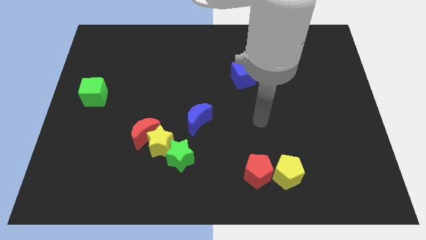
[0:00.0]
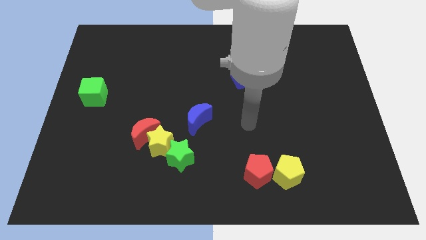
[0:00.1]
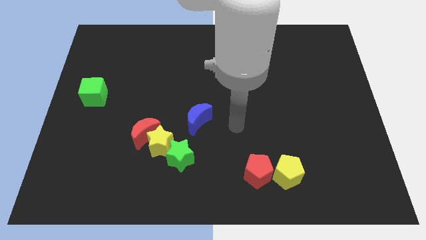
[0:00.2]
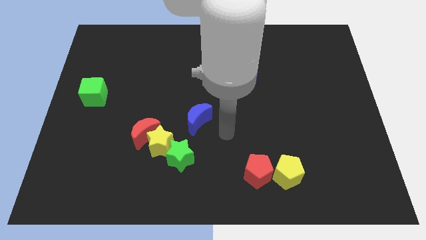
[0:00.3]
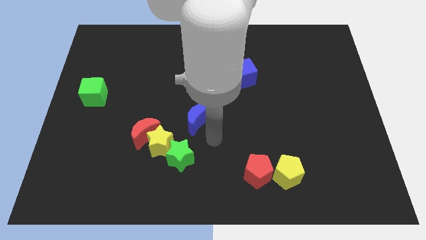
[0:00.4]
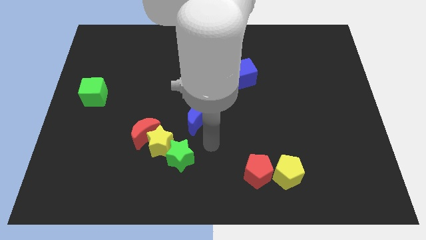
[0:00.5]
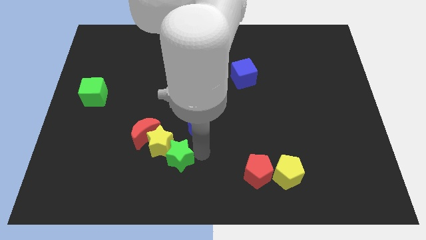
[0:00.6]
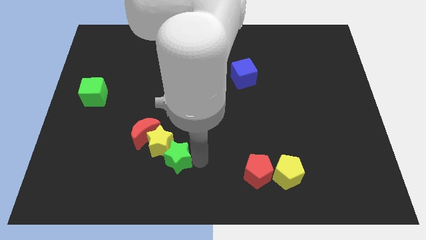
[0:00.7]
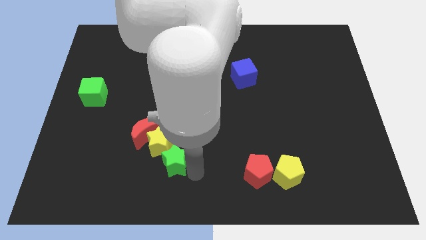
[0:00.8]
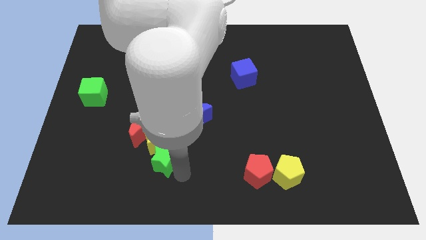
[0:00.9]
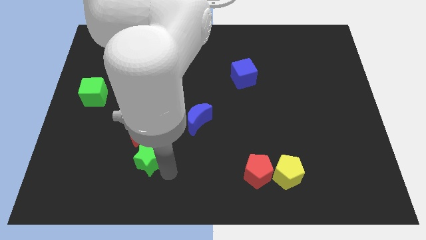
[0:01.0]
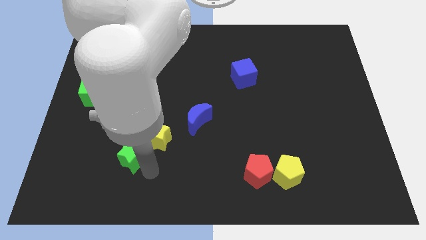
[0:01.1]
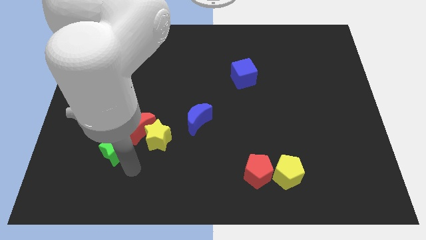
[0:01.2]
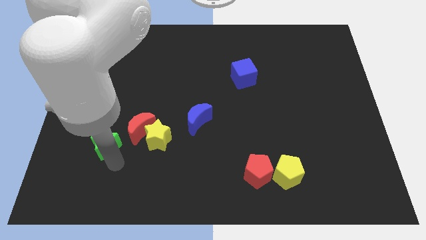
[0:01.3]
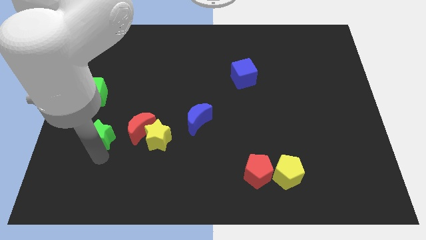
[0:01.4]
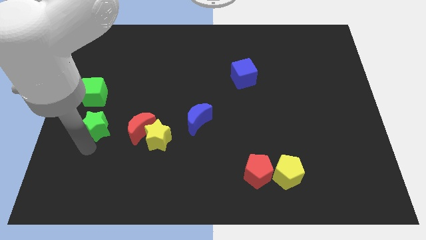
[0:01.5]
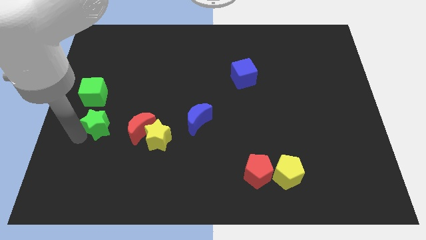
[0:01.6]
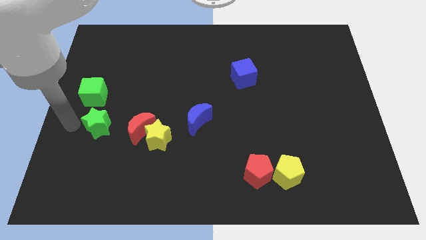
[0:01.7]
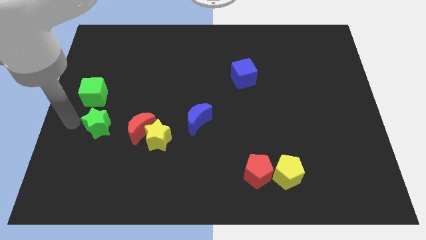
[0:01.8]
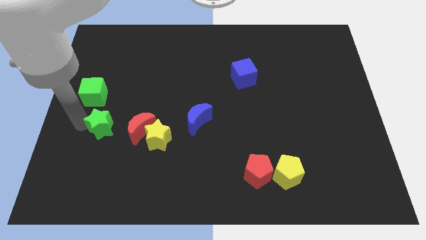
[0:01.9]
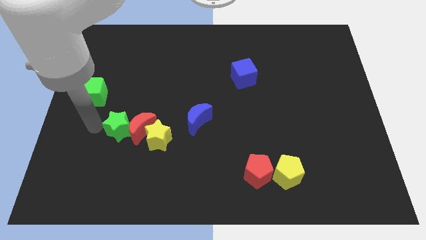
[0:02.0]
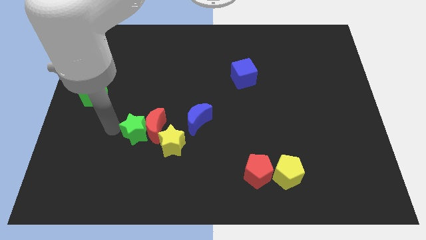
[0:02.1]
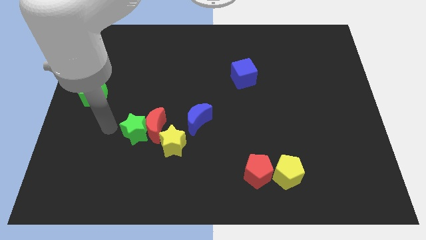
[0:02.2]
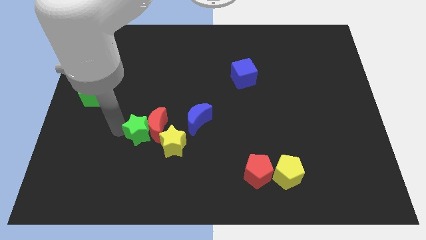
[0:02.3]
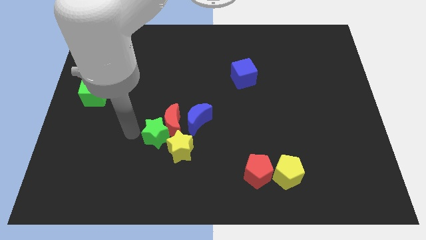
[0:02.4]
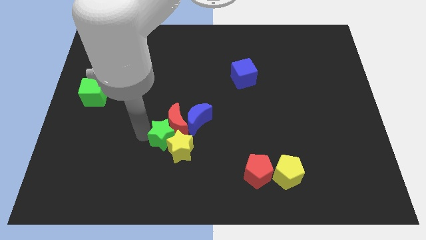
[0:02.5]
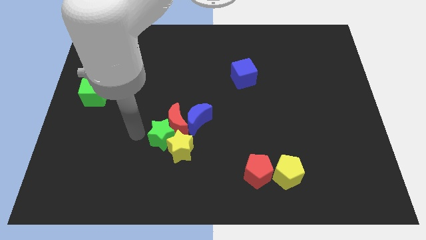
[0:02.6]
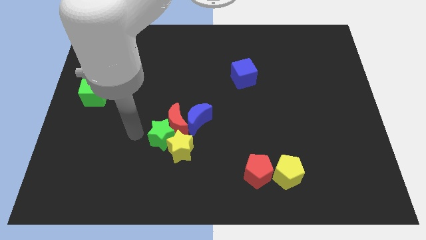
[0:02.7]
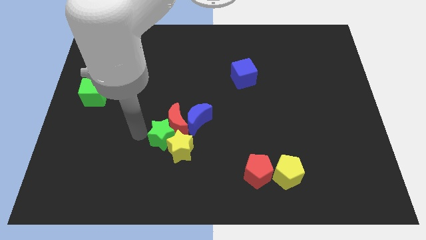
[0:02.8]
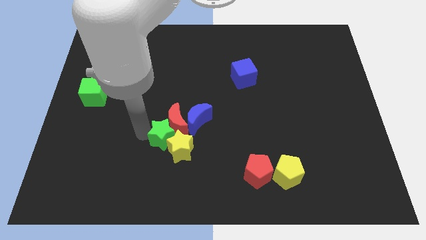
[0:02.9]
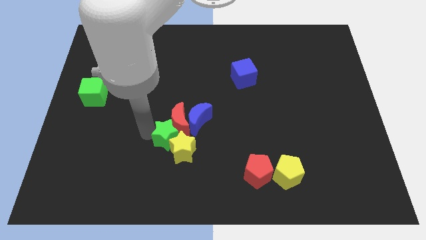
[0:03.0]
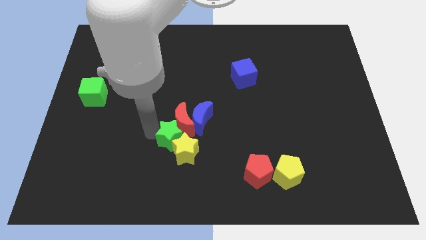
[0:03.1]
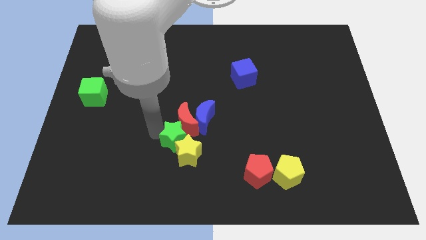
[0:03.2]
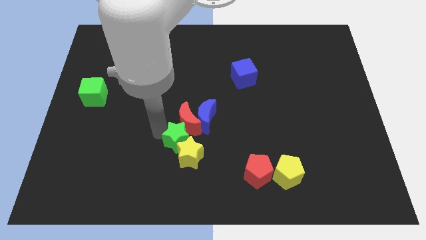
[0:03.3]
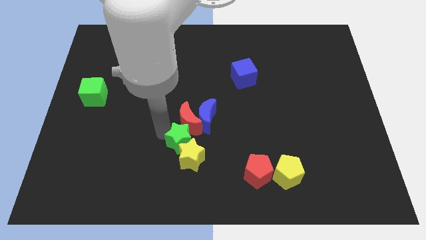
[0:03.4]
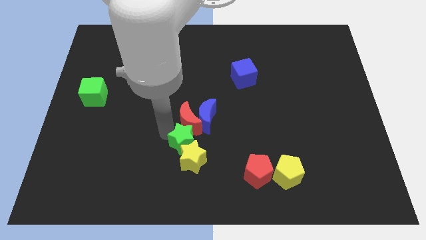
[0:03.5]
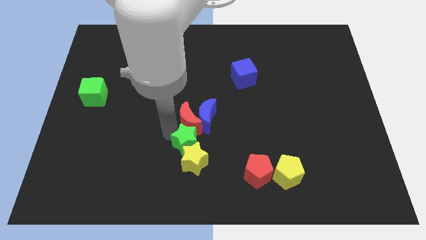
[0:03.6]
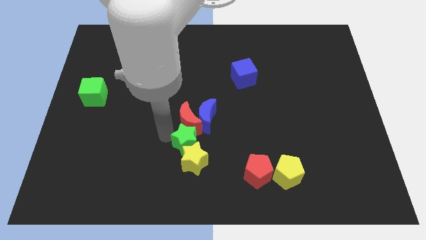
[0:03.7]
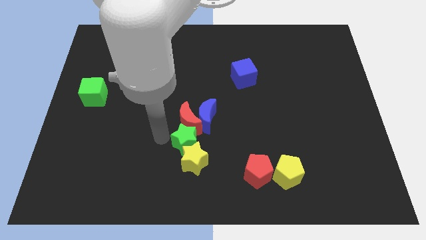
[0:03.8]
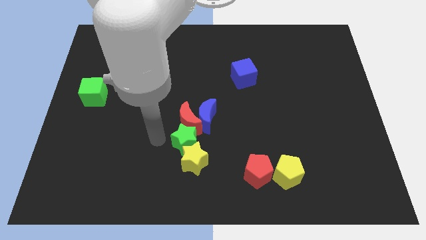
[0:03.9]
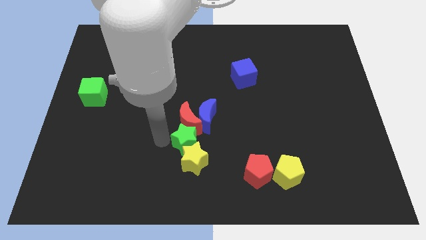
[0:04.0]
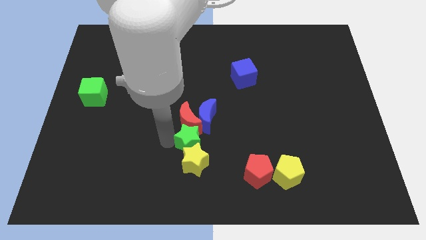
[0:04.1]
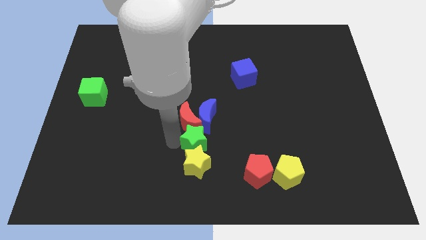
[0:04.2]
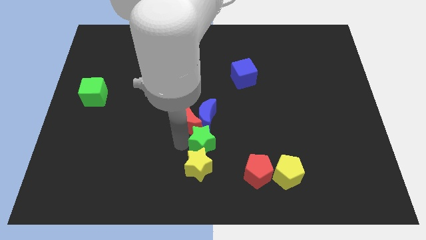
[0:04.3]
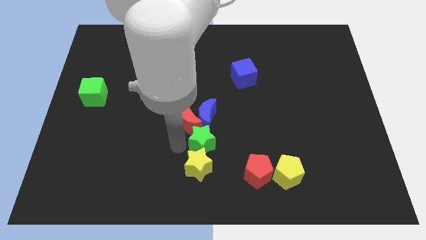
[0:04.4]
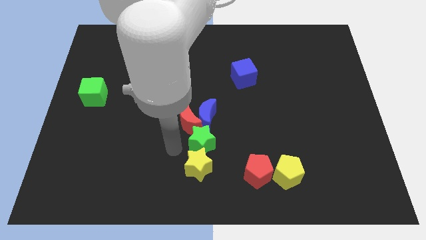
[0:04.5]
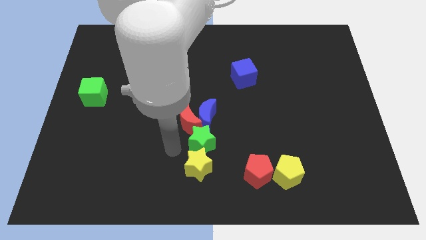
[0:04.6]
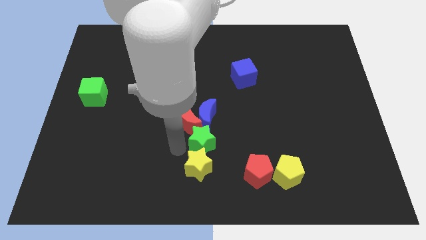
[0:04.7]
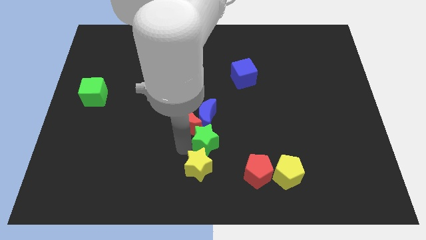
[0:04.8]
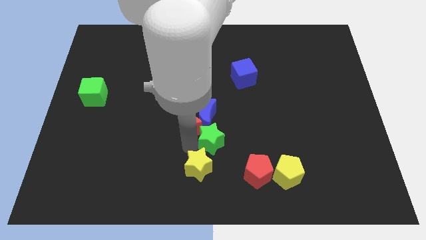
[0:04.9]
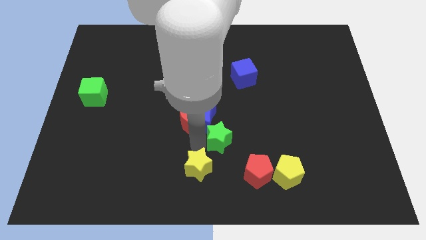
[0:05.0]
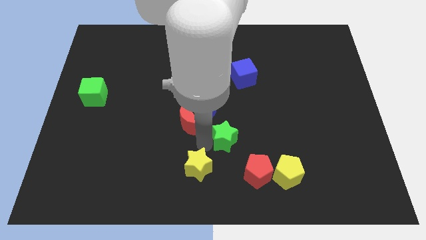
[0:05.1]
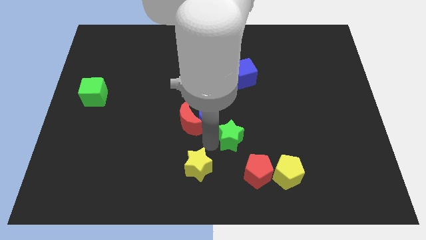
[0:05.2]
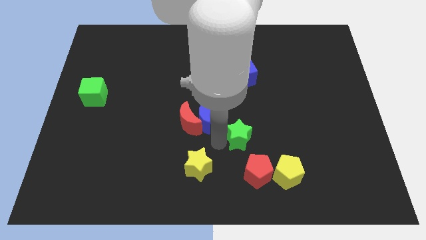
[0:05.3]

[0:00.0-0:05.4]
put the green star to the top side of the red pentagon

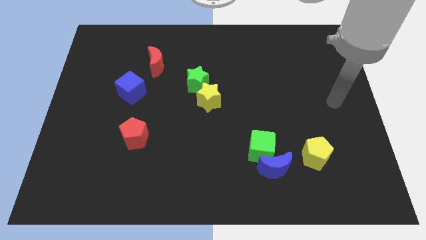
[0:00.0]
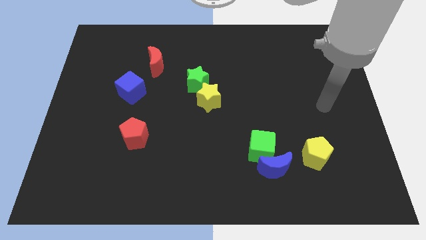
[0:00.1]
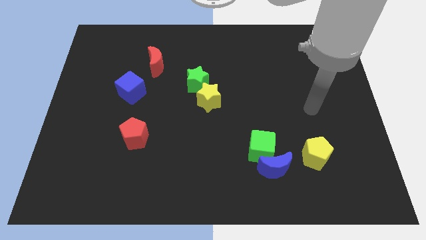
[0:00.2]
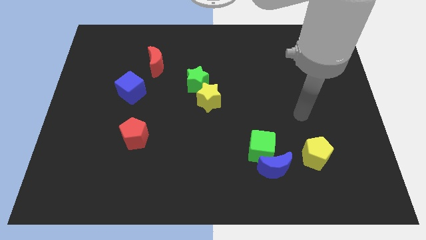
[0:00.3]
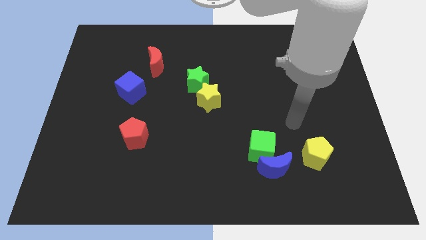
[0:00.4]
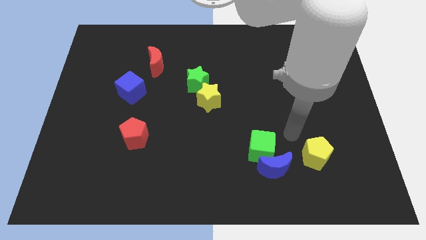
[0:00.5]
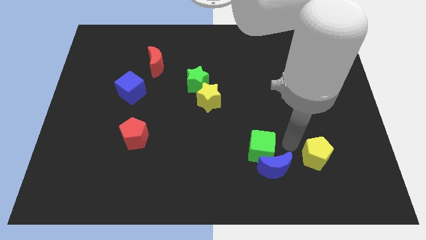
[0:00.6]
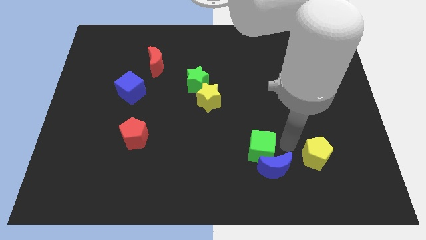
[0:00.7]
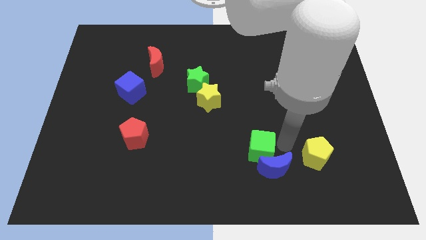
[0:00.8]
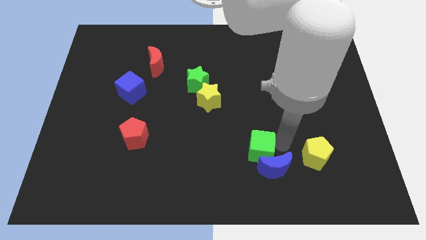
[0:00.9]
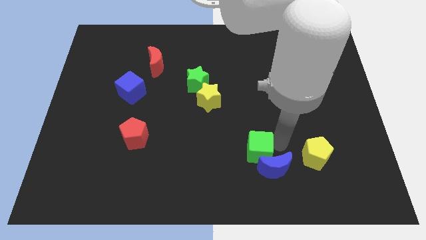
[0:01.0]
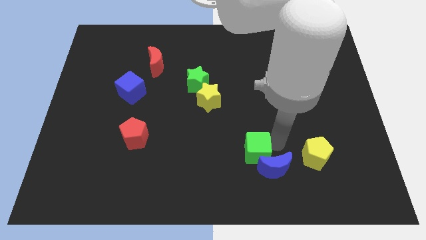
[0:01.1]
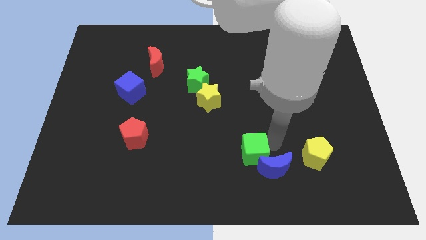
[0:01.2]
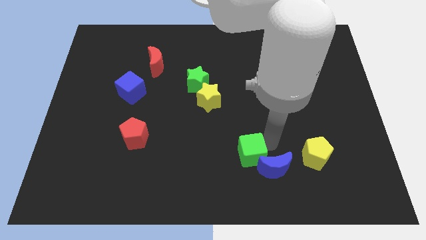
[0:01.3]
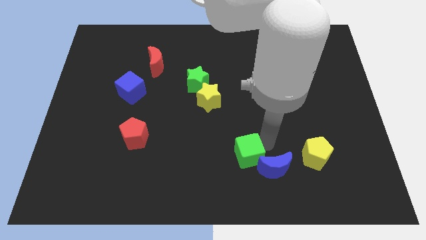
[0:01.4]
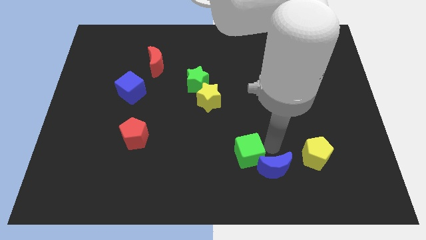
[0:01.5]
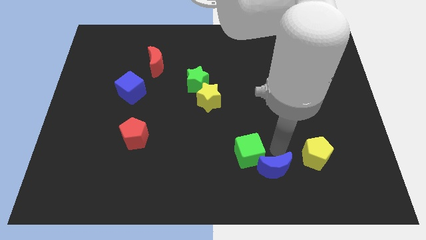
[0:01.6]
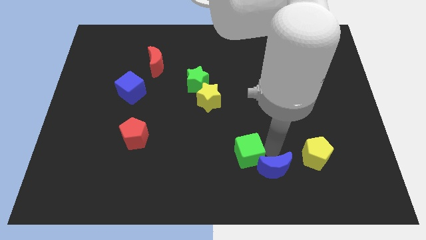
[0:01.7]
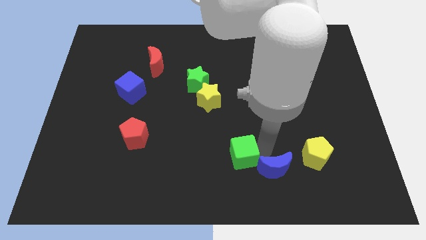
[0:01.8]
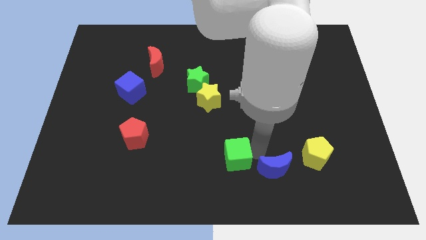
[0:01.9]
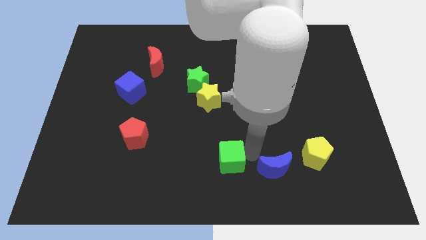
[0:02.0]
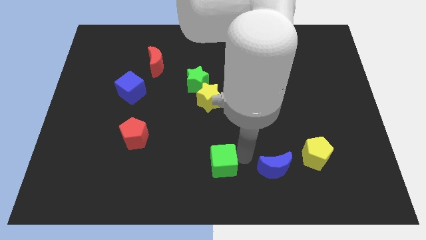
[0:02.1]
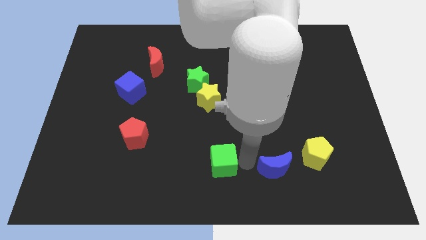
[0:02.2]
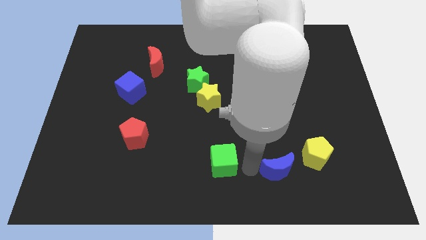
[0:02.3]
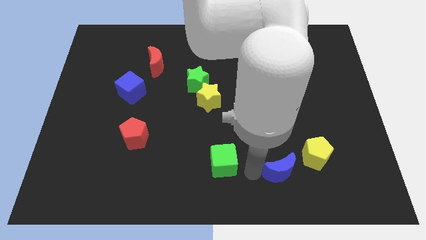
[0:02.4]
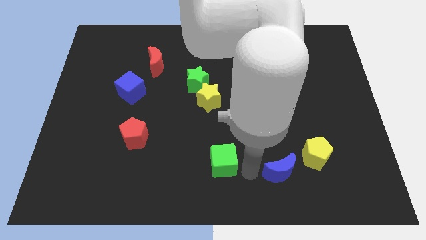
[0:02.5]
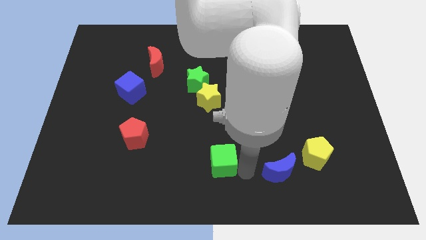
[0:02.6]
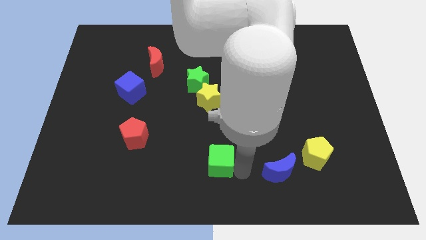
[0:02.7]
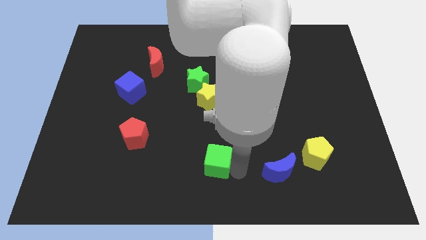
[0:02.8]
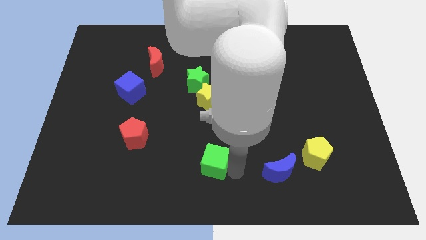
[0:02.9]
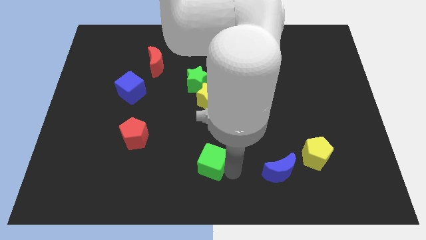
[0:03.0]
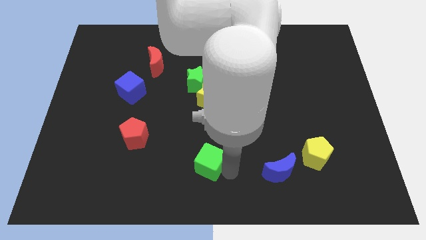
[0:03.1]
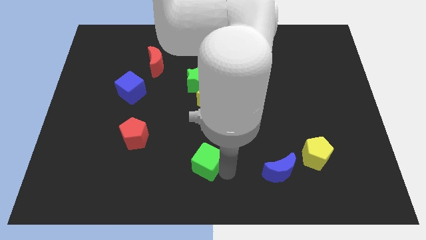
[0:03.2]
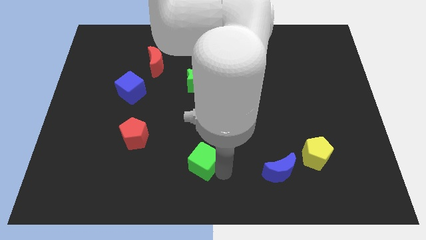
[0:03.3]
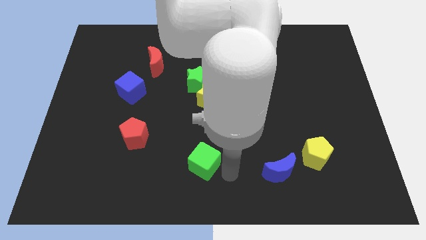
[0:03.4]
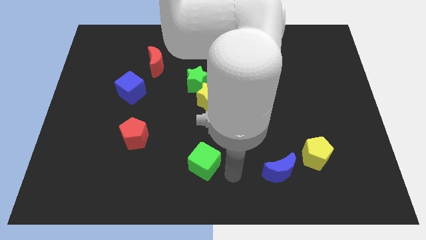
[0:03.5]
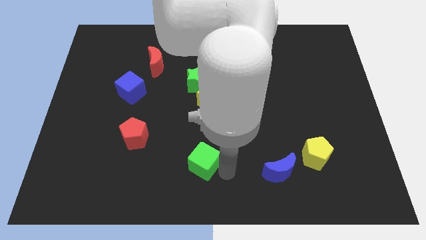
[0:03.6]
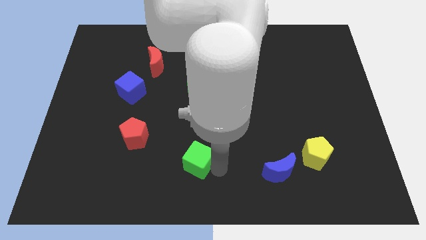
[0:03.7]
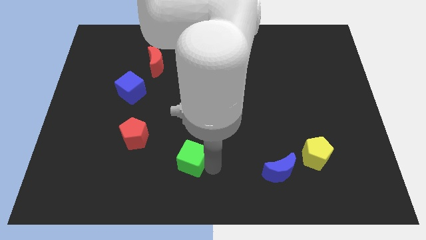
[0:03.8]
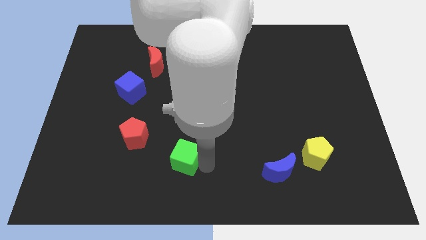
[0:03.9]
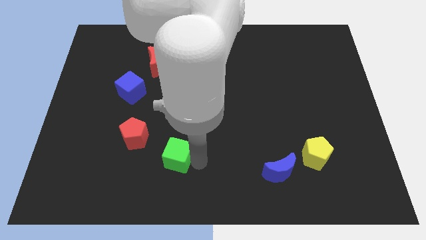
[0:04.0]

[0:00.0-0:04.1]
slide the green cube to the bottom right side of the red pentagon
